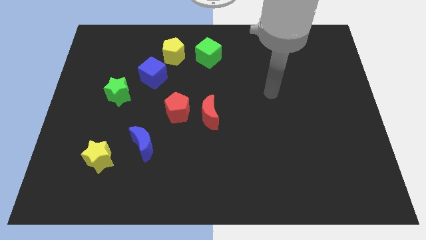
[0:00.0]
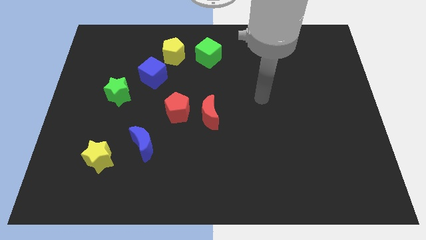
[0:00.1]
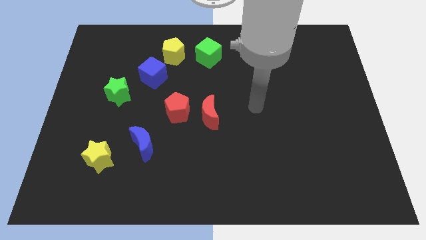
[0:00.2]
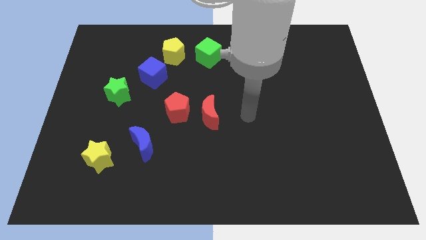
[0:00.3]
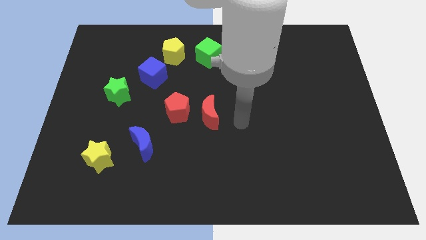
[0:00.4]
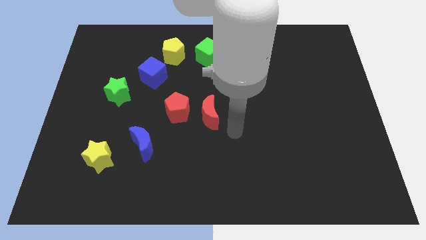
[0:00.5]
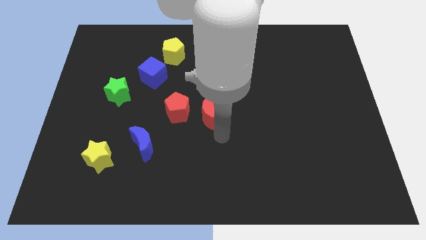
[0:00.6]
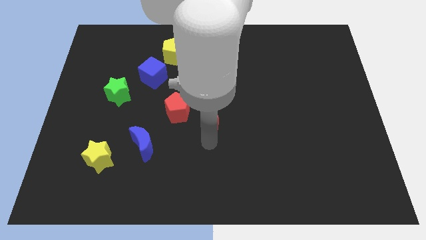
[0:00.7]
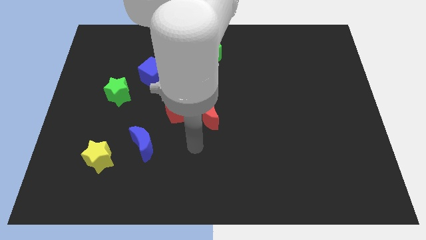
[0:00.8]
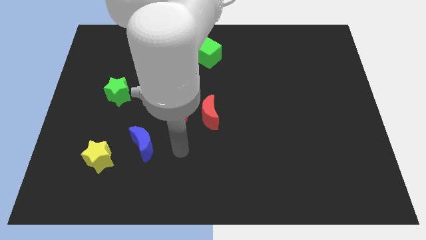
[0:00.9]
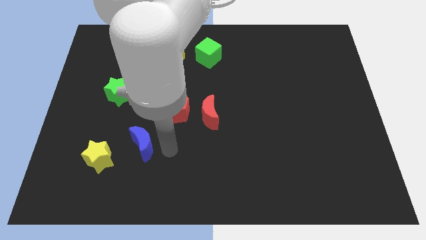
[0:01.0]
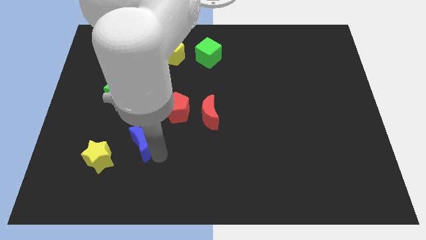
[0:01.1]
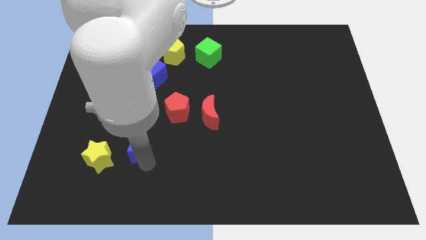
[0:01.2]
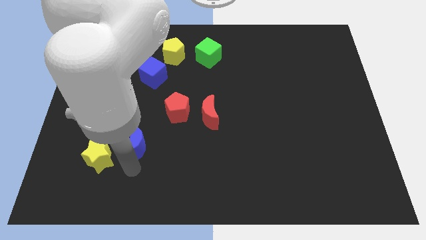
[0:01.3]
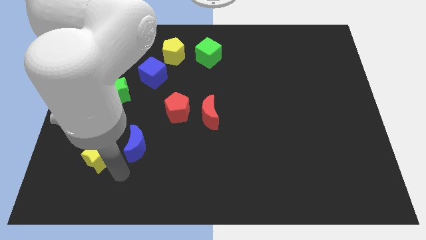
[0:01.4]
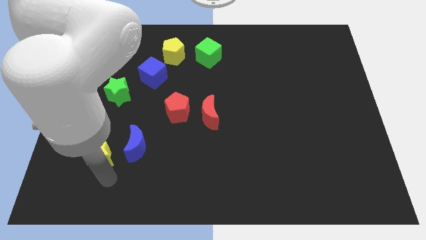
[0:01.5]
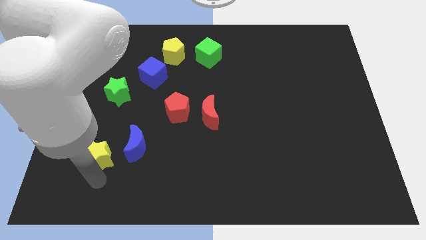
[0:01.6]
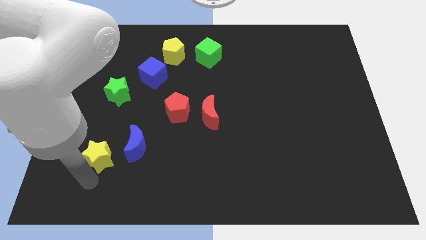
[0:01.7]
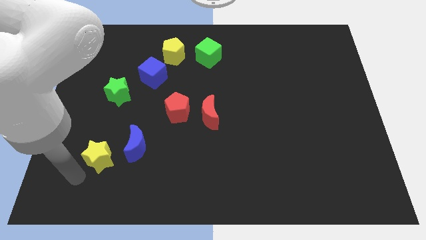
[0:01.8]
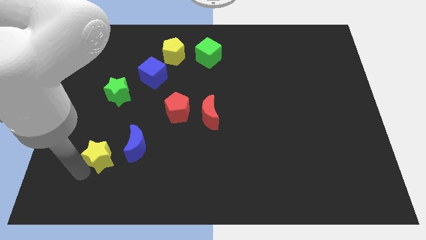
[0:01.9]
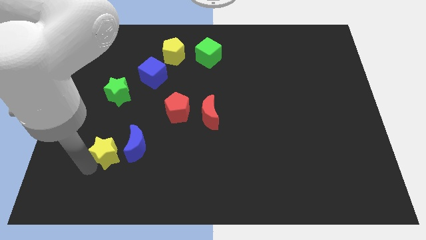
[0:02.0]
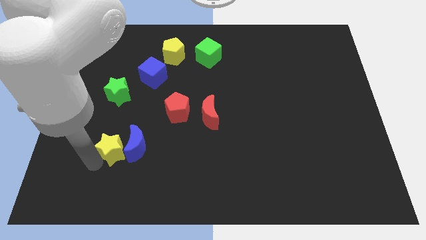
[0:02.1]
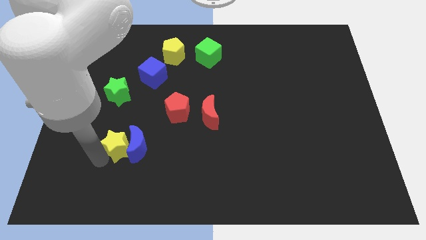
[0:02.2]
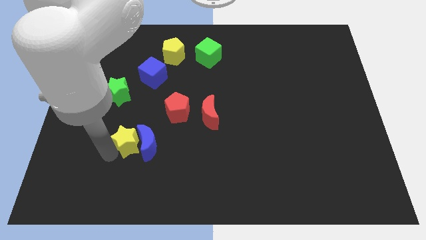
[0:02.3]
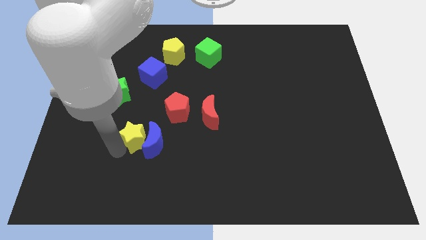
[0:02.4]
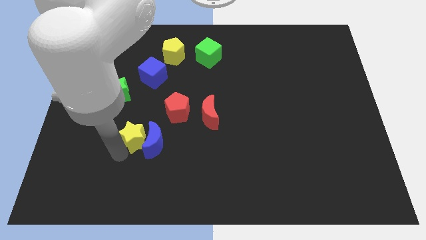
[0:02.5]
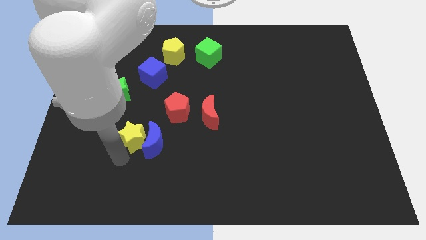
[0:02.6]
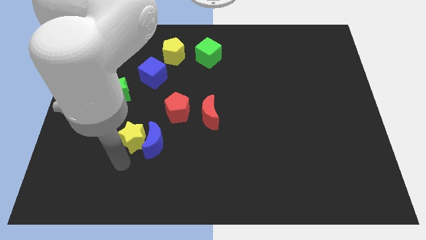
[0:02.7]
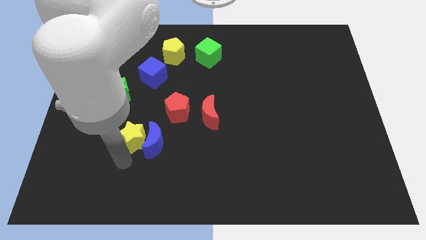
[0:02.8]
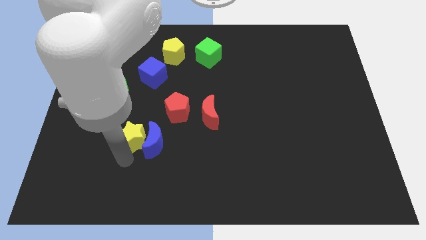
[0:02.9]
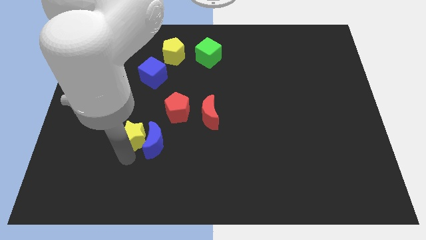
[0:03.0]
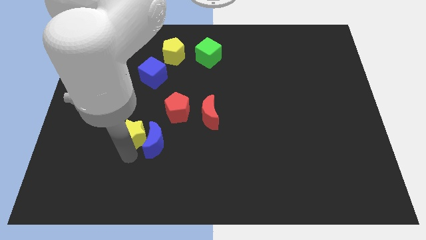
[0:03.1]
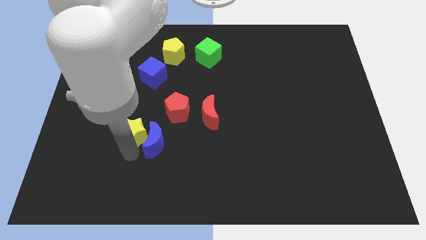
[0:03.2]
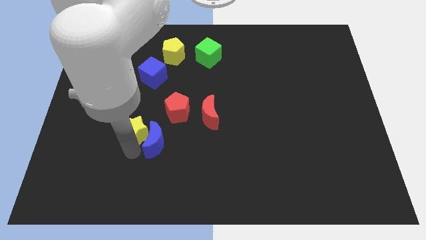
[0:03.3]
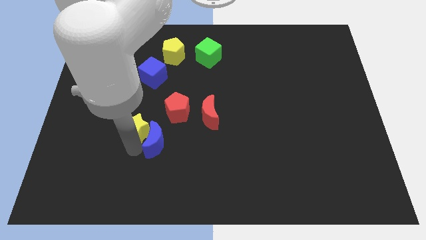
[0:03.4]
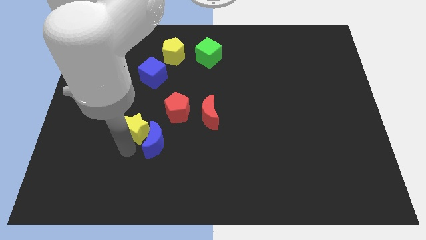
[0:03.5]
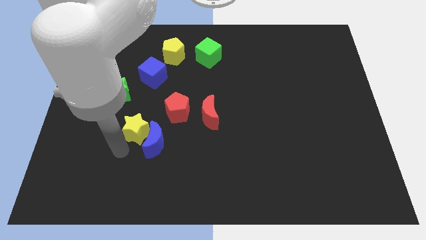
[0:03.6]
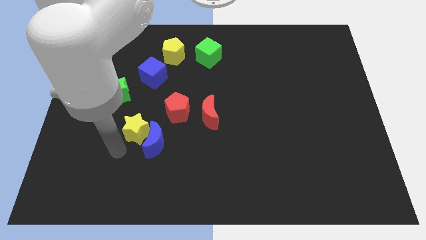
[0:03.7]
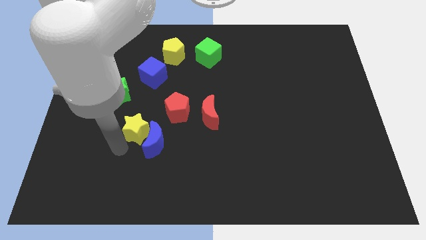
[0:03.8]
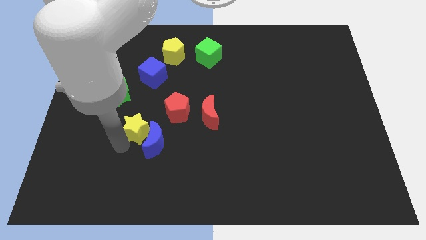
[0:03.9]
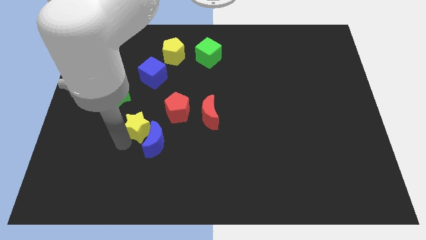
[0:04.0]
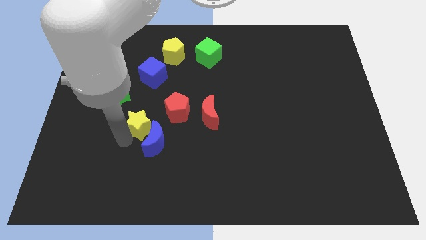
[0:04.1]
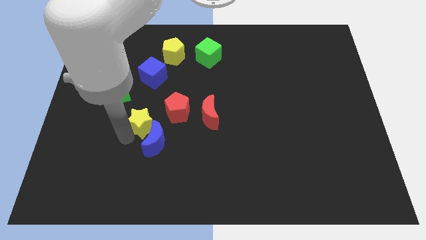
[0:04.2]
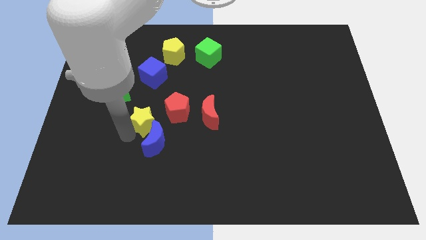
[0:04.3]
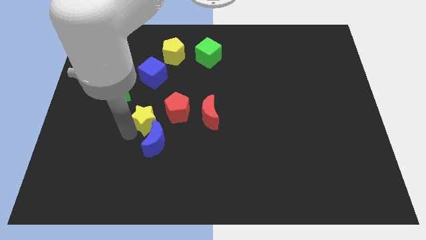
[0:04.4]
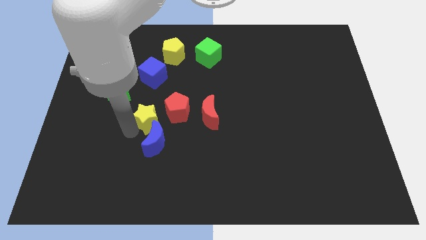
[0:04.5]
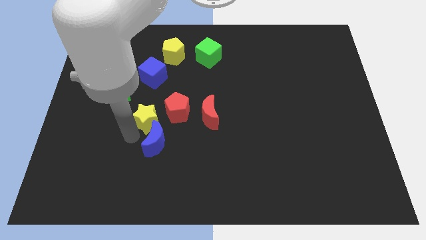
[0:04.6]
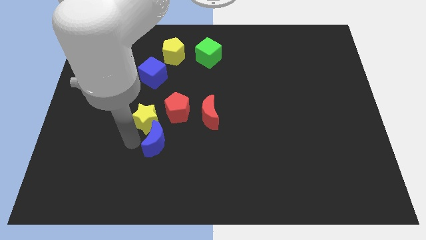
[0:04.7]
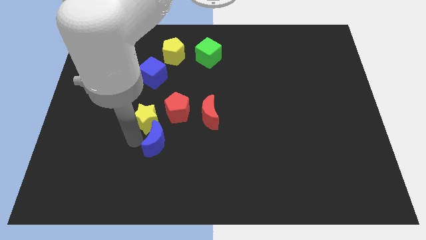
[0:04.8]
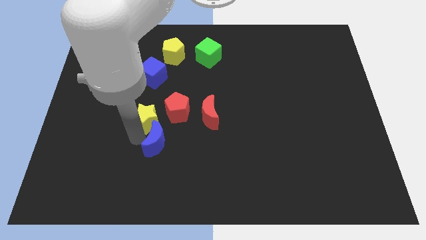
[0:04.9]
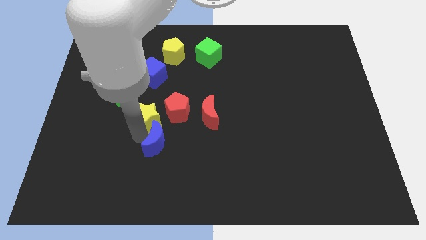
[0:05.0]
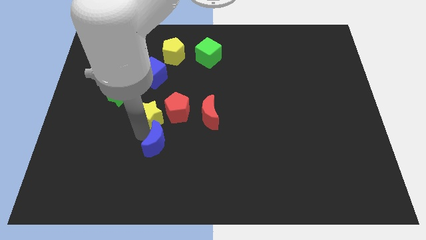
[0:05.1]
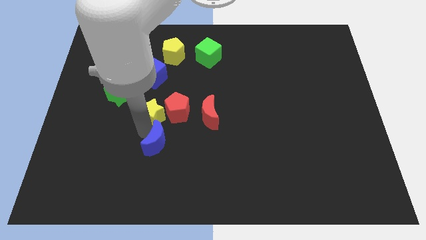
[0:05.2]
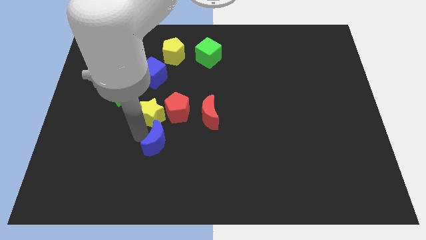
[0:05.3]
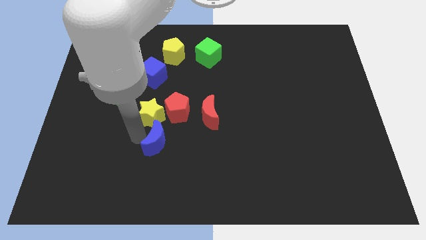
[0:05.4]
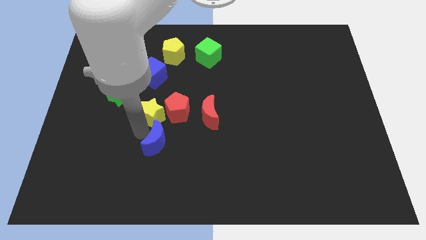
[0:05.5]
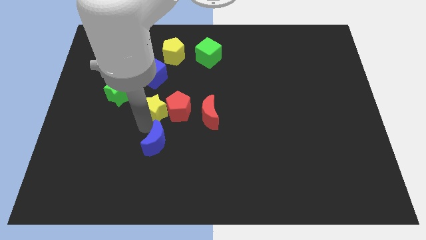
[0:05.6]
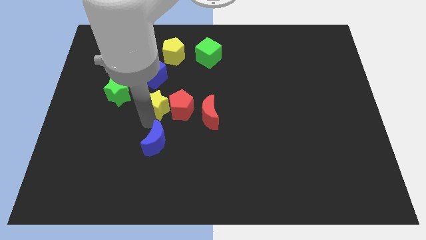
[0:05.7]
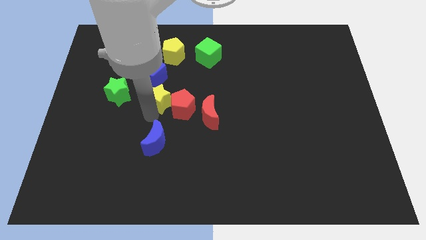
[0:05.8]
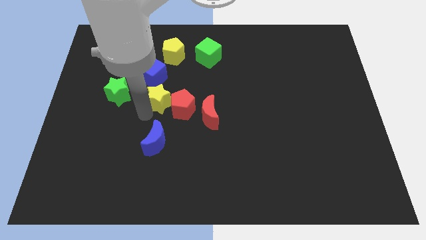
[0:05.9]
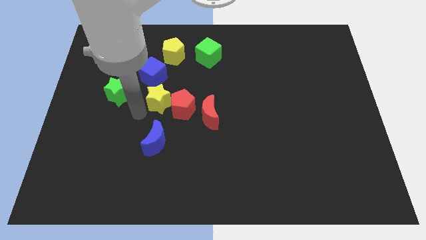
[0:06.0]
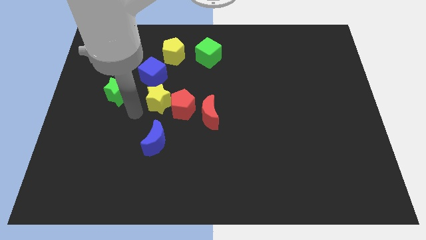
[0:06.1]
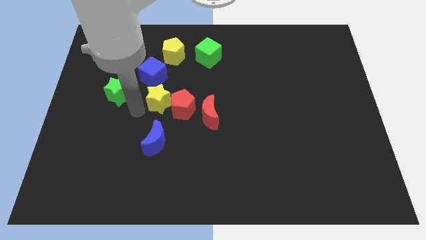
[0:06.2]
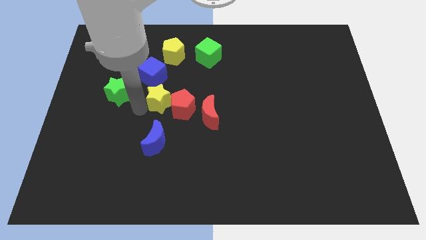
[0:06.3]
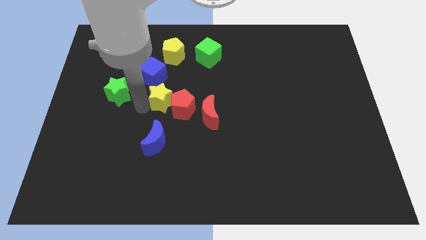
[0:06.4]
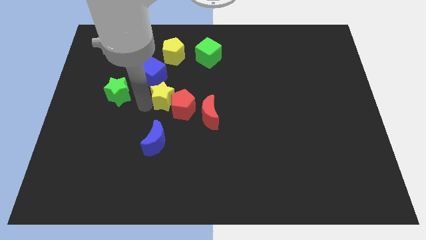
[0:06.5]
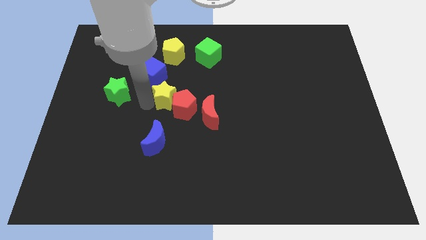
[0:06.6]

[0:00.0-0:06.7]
move the yellow star upwards and to the right

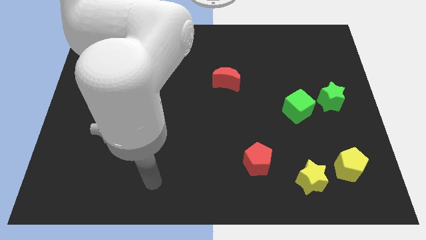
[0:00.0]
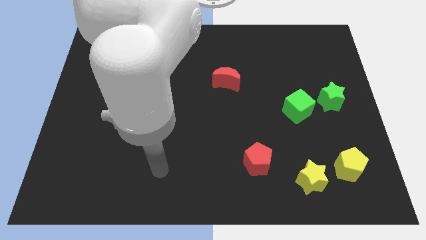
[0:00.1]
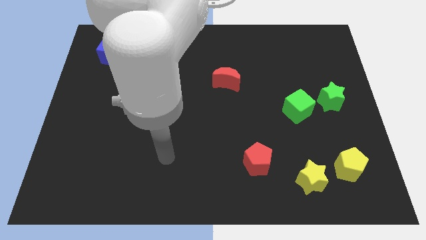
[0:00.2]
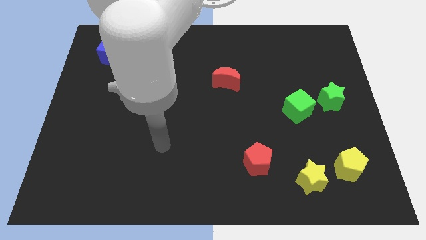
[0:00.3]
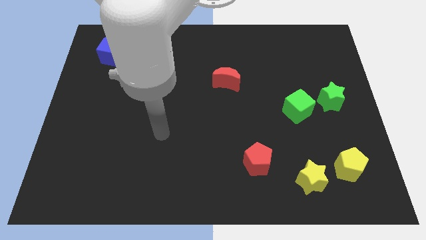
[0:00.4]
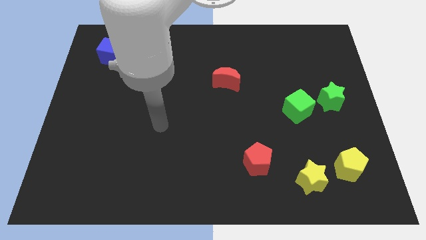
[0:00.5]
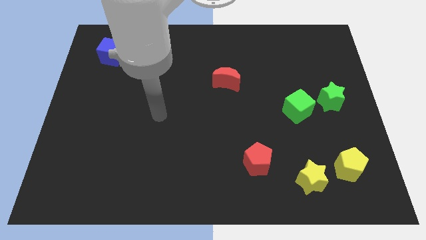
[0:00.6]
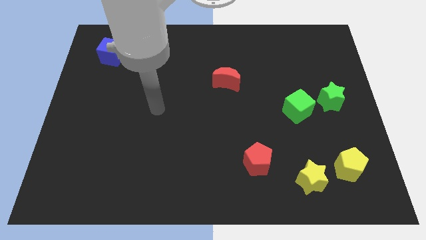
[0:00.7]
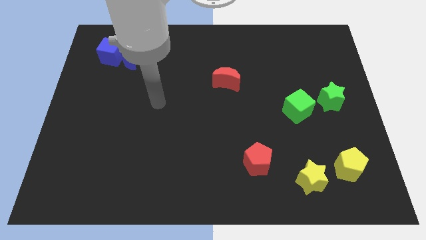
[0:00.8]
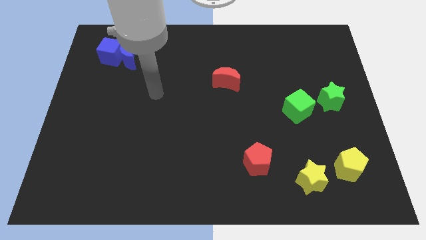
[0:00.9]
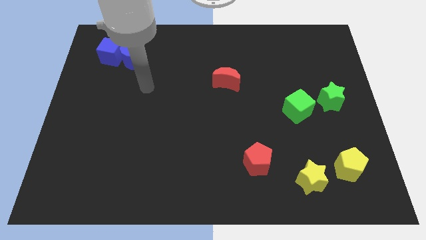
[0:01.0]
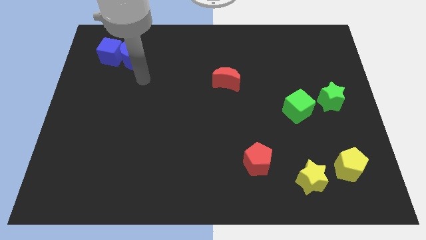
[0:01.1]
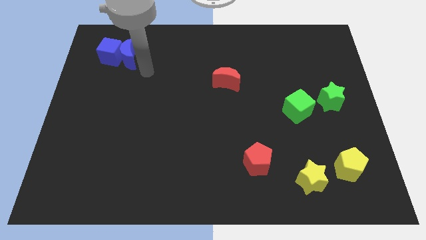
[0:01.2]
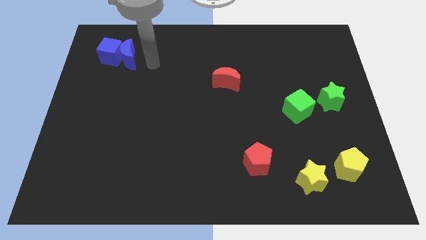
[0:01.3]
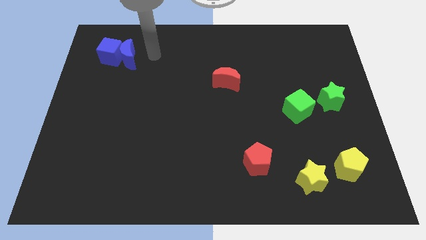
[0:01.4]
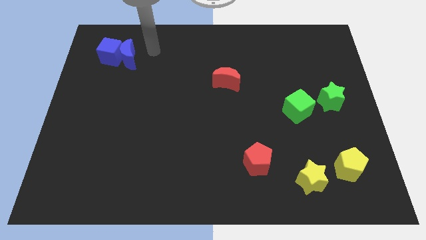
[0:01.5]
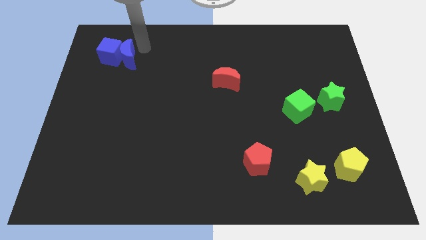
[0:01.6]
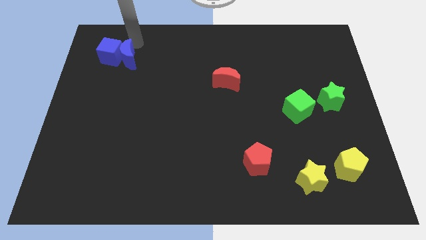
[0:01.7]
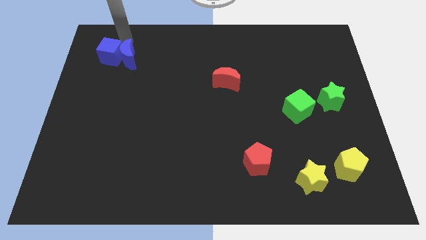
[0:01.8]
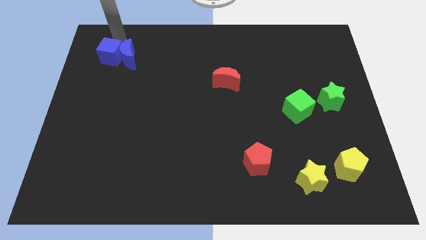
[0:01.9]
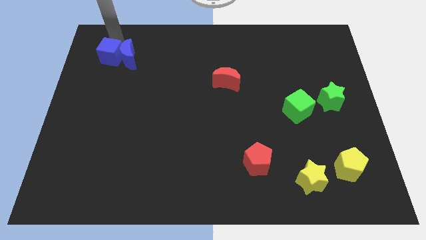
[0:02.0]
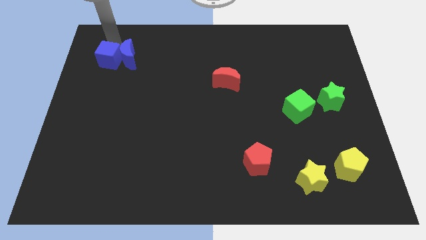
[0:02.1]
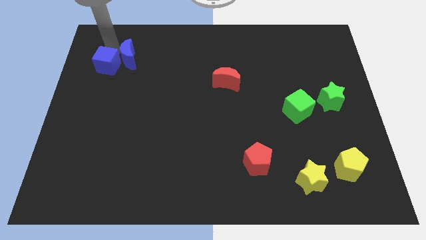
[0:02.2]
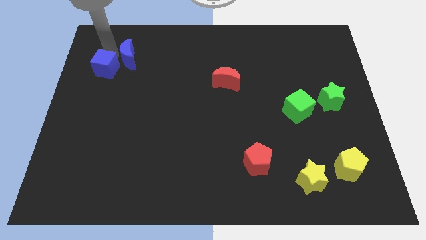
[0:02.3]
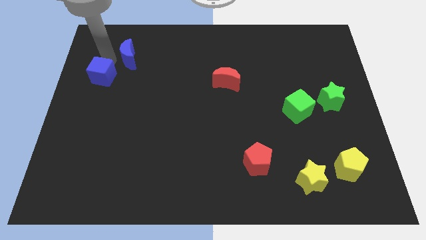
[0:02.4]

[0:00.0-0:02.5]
move the blue cube a little downwards
